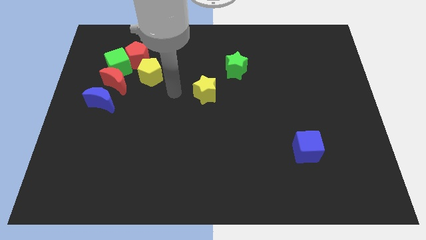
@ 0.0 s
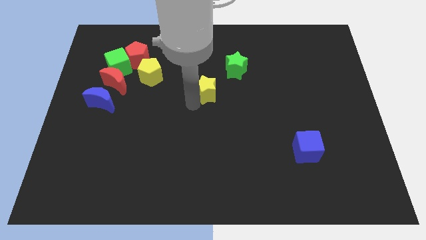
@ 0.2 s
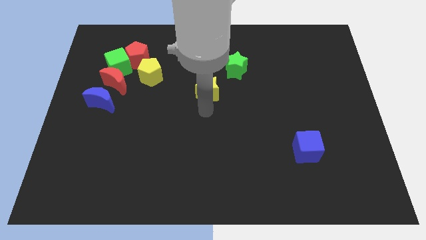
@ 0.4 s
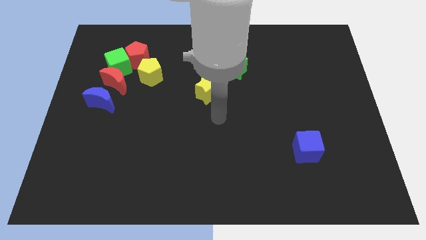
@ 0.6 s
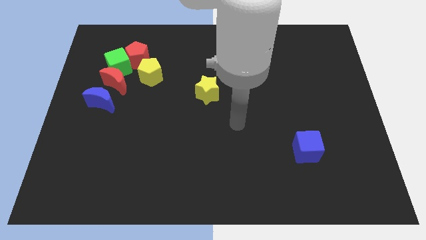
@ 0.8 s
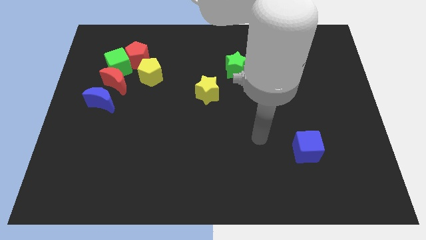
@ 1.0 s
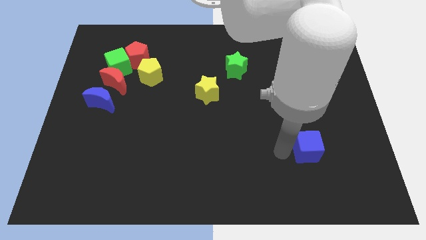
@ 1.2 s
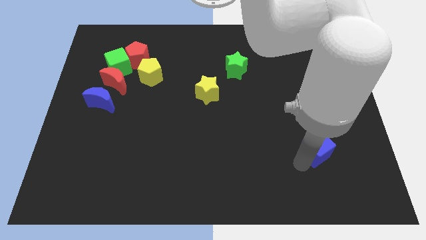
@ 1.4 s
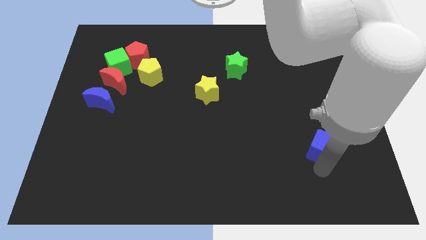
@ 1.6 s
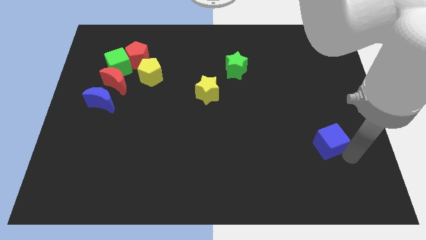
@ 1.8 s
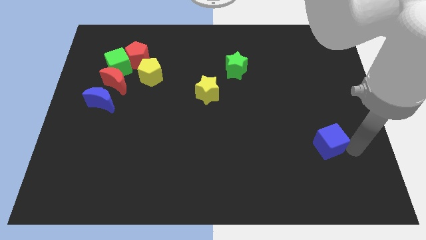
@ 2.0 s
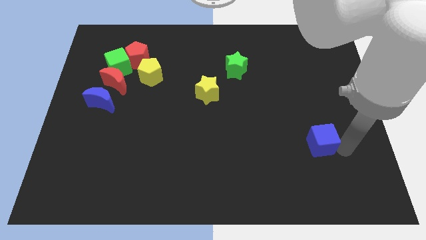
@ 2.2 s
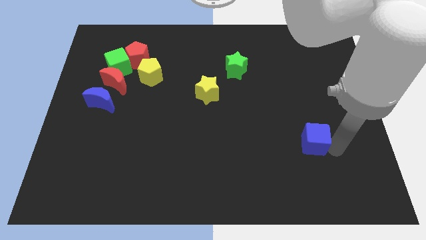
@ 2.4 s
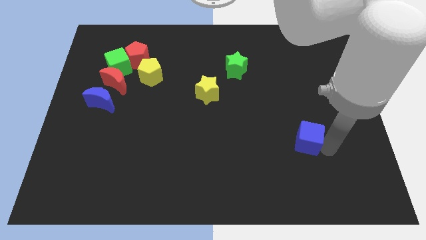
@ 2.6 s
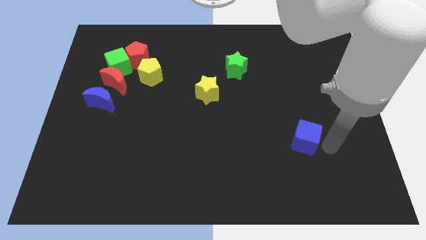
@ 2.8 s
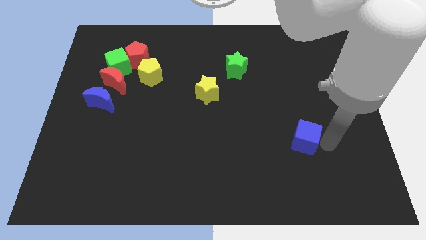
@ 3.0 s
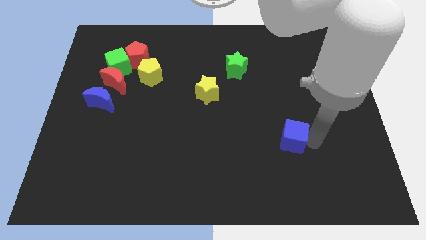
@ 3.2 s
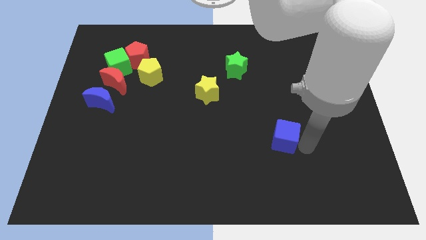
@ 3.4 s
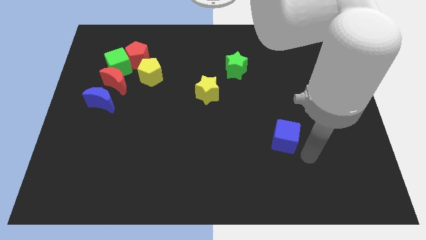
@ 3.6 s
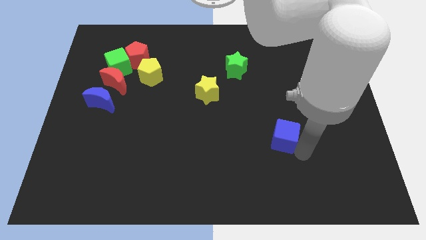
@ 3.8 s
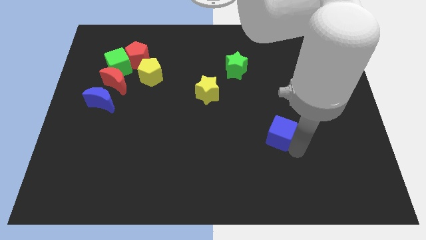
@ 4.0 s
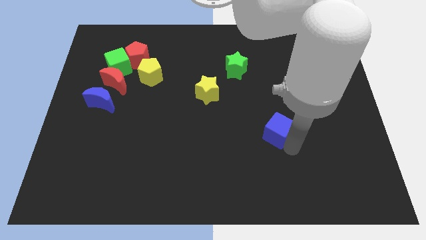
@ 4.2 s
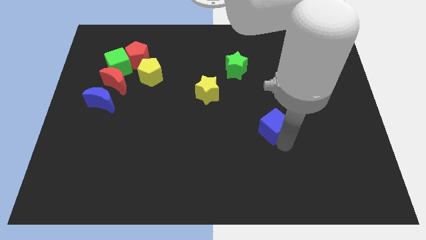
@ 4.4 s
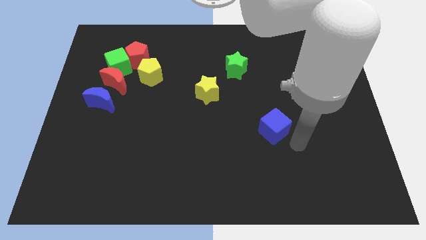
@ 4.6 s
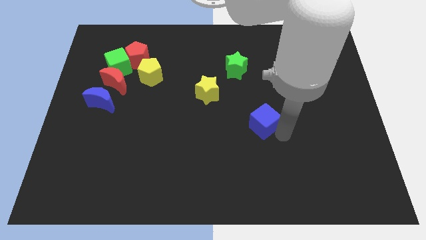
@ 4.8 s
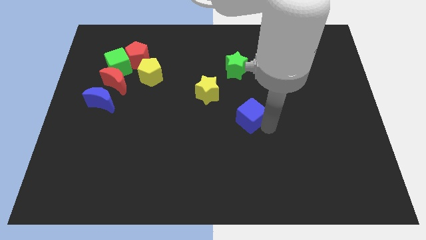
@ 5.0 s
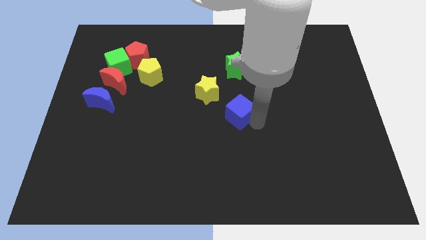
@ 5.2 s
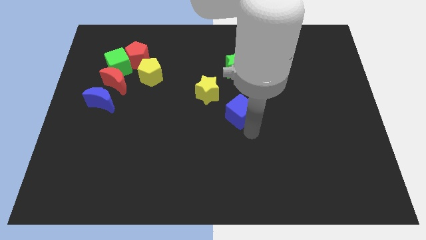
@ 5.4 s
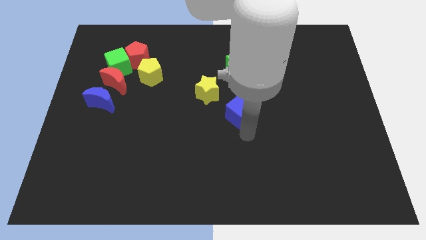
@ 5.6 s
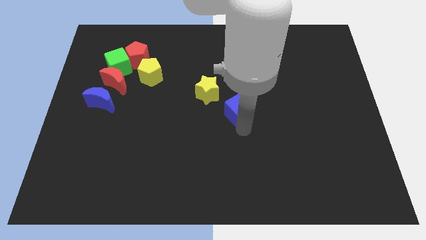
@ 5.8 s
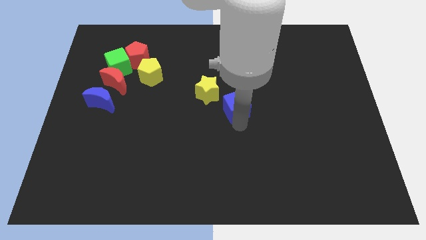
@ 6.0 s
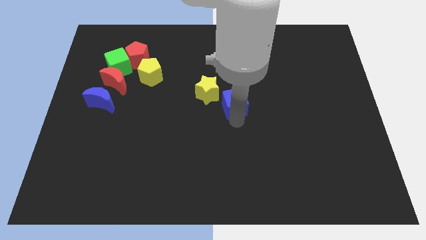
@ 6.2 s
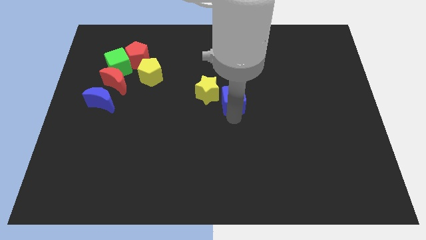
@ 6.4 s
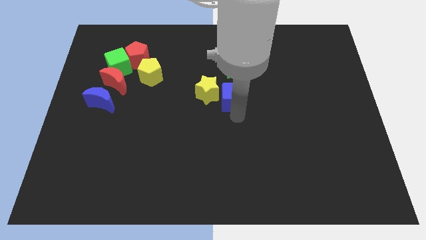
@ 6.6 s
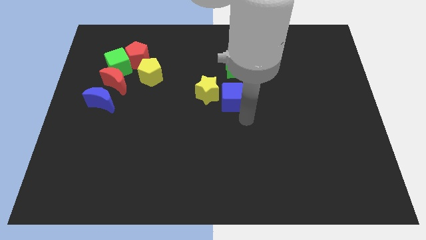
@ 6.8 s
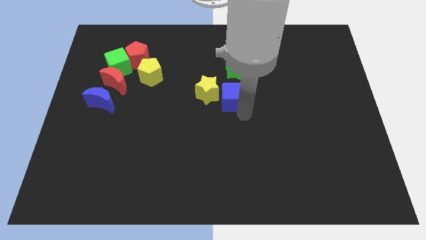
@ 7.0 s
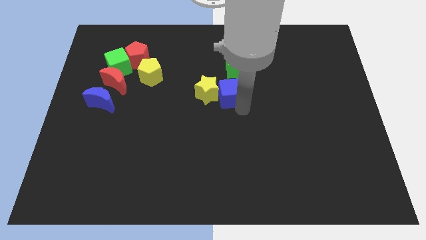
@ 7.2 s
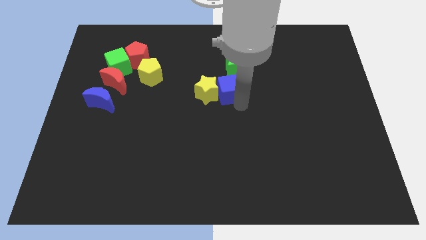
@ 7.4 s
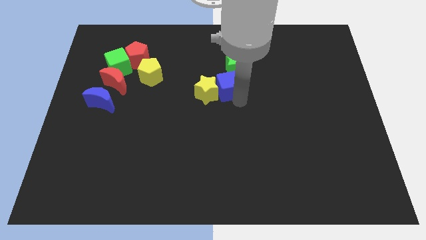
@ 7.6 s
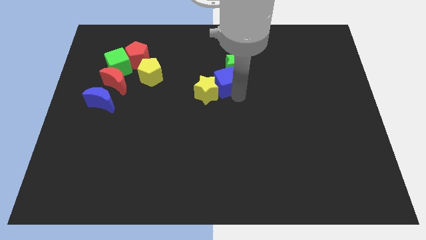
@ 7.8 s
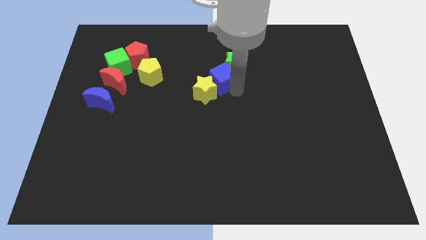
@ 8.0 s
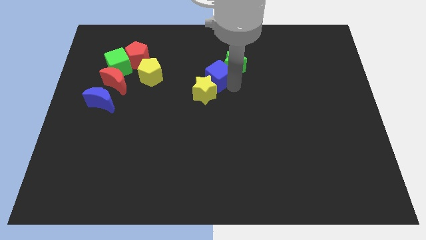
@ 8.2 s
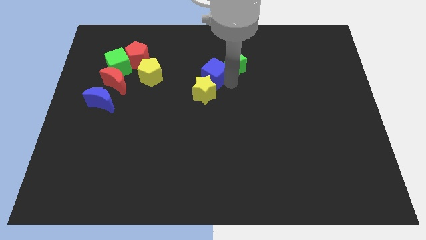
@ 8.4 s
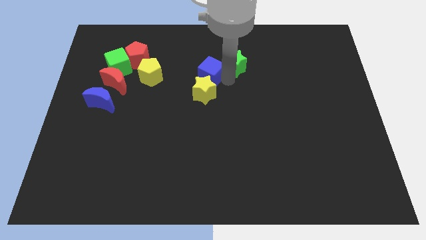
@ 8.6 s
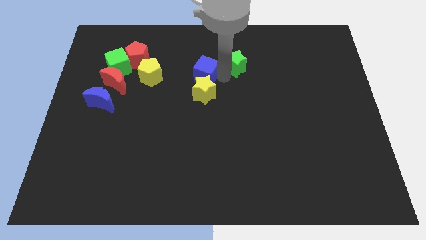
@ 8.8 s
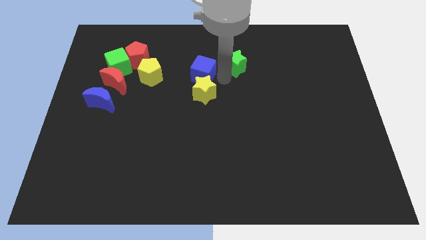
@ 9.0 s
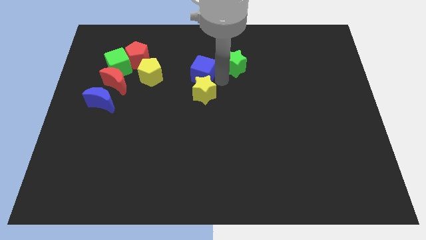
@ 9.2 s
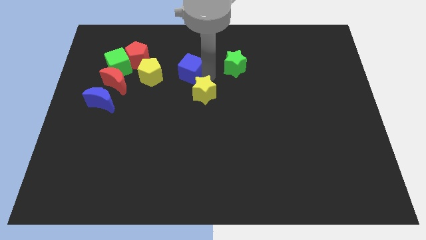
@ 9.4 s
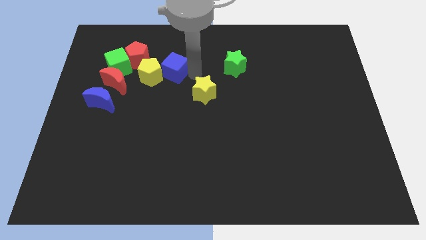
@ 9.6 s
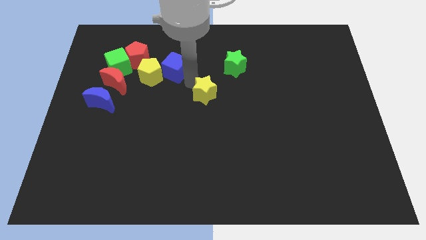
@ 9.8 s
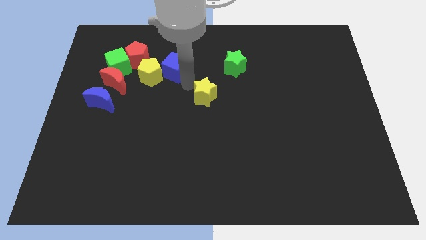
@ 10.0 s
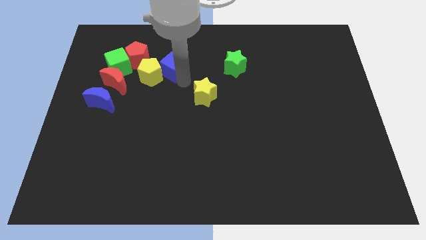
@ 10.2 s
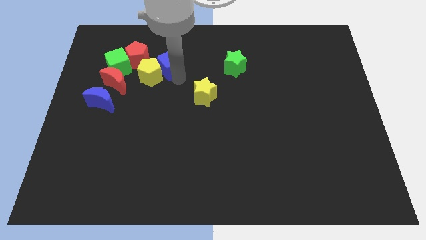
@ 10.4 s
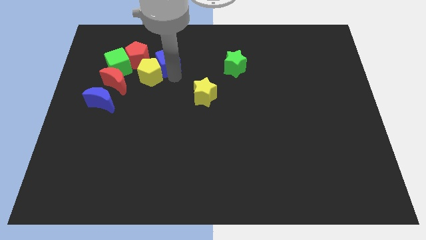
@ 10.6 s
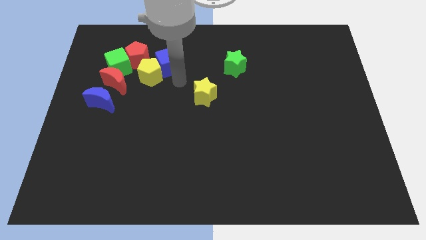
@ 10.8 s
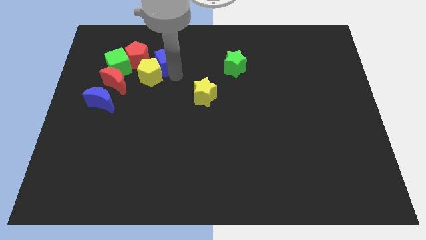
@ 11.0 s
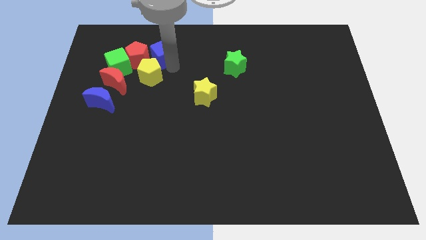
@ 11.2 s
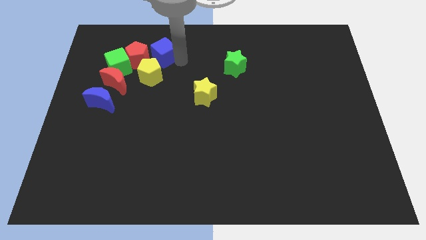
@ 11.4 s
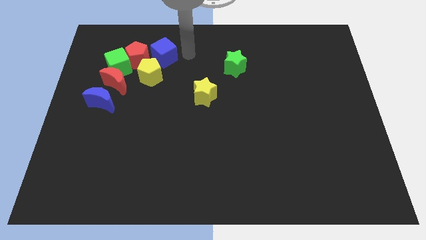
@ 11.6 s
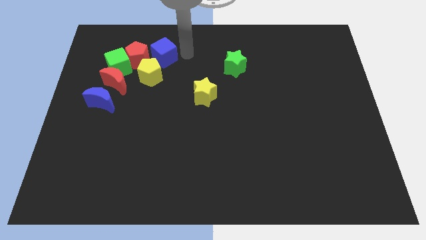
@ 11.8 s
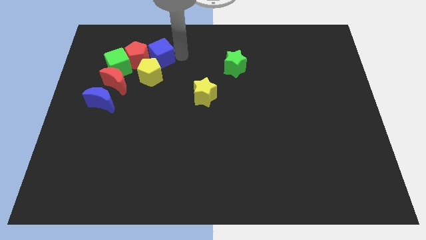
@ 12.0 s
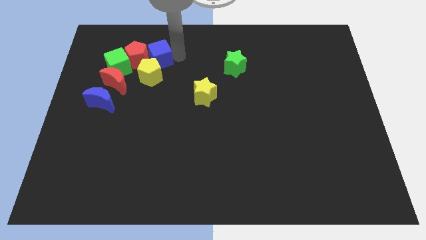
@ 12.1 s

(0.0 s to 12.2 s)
push the blue cube to the red pentagon

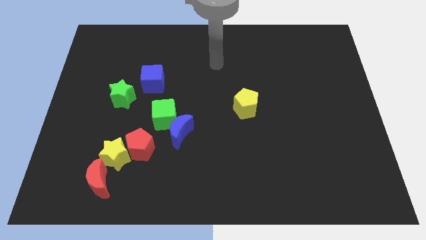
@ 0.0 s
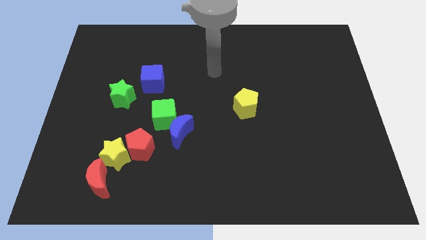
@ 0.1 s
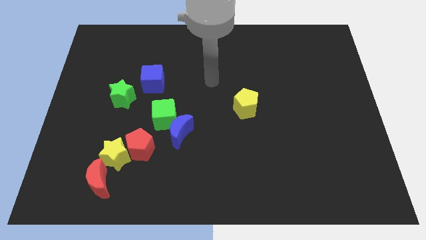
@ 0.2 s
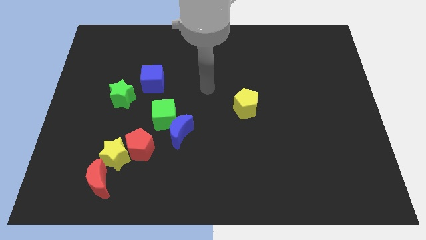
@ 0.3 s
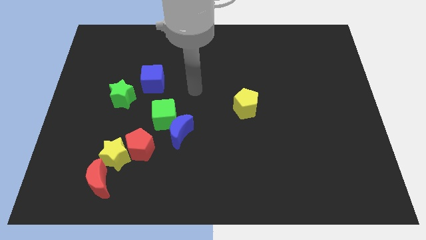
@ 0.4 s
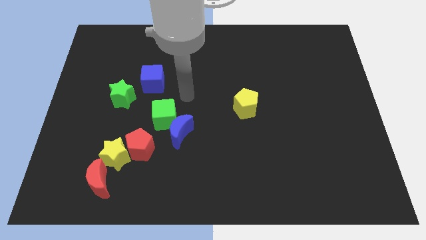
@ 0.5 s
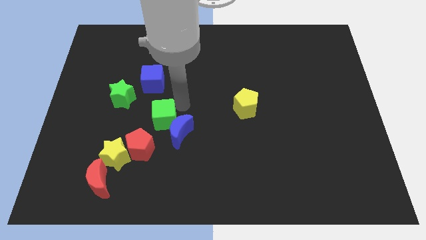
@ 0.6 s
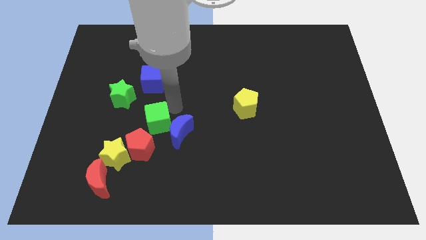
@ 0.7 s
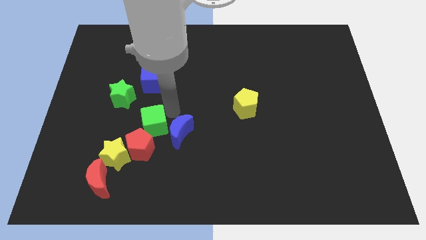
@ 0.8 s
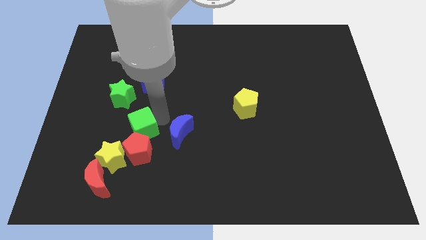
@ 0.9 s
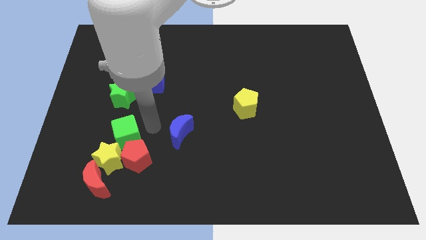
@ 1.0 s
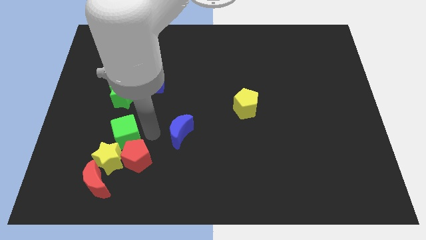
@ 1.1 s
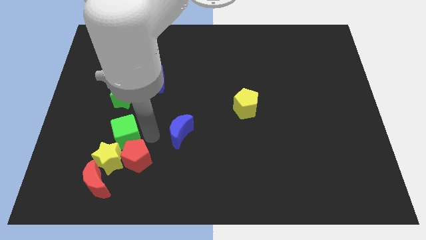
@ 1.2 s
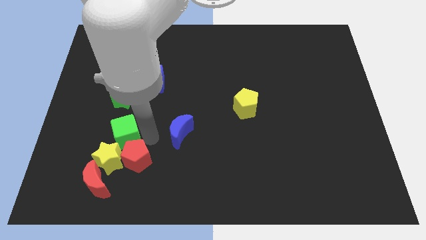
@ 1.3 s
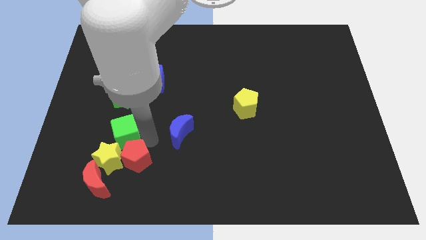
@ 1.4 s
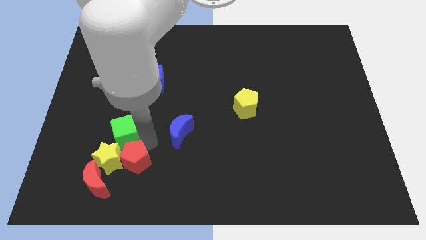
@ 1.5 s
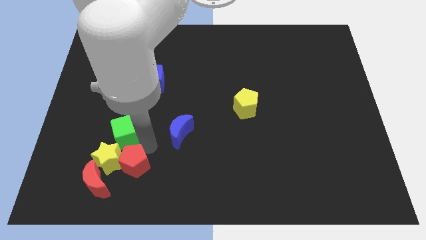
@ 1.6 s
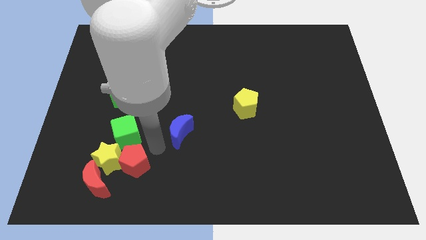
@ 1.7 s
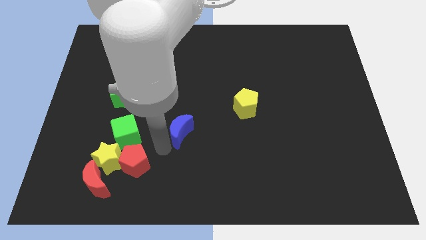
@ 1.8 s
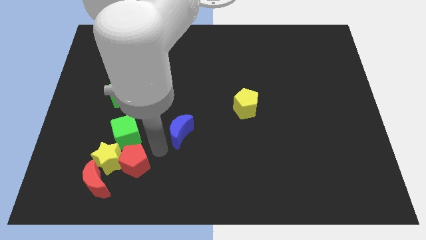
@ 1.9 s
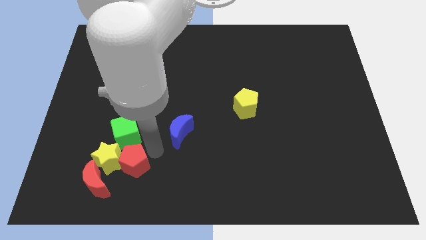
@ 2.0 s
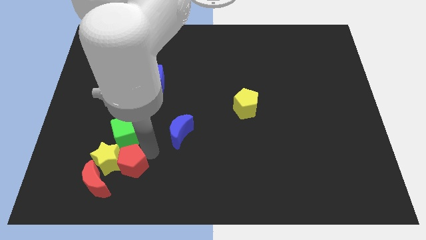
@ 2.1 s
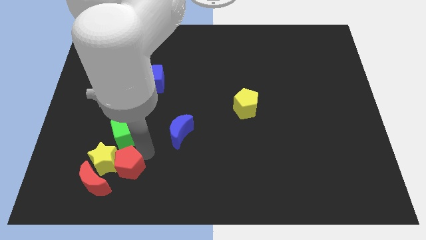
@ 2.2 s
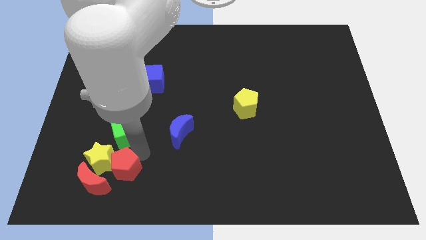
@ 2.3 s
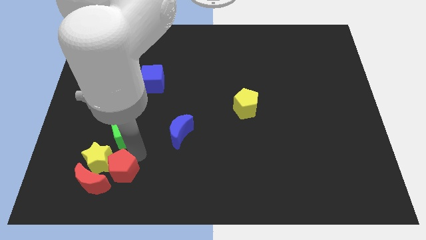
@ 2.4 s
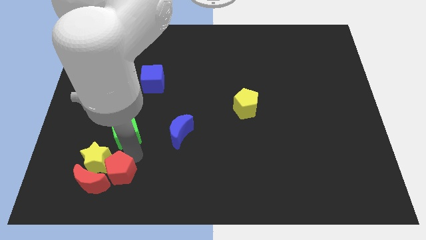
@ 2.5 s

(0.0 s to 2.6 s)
slide the red pentagon towards the red moon
